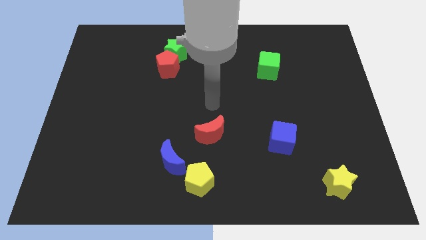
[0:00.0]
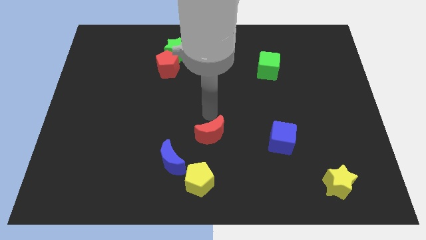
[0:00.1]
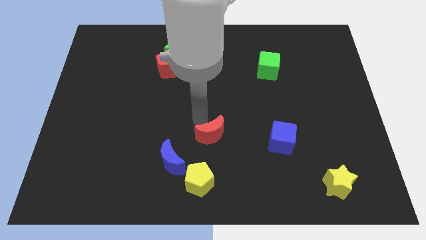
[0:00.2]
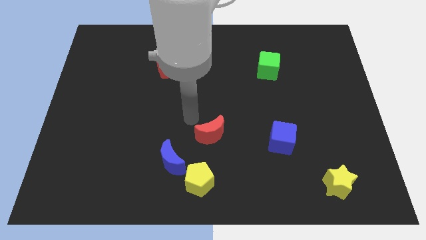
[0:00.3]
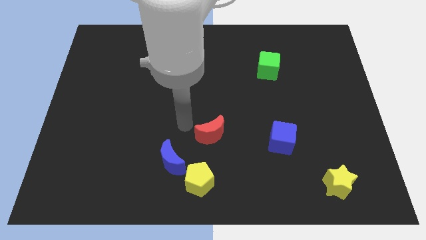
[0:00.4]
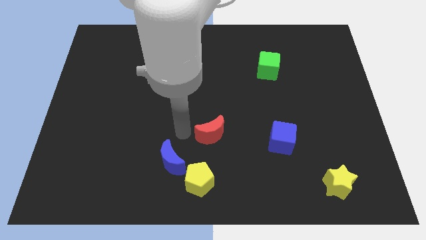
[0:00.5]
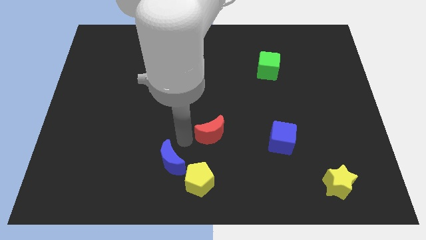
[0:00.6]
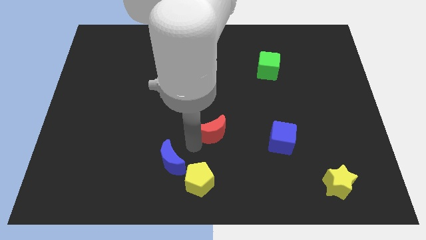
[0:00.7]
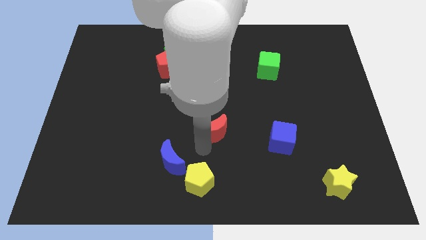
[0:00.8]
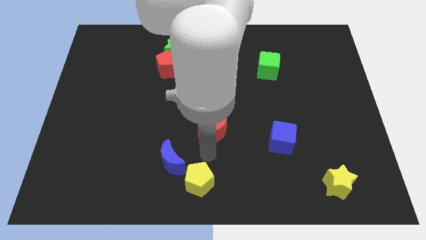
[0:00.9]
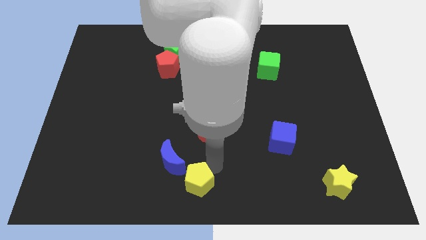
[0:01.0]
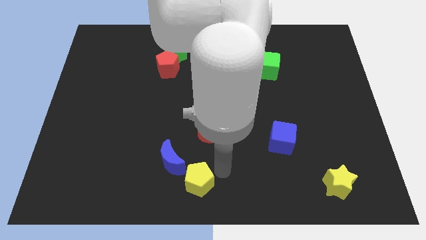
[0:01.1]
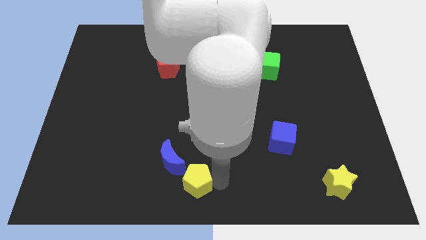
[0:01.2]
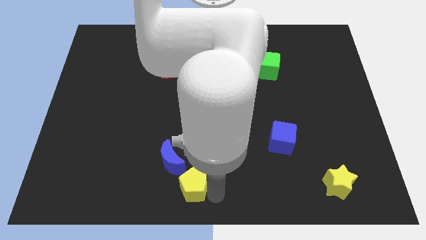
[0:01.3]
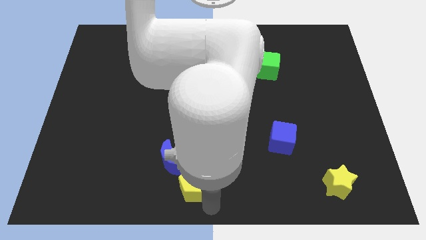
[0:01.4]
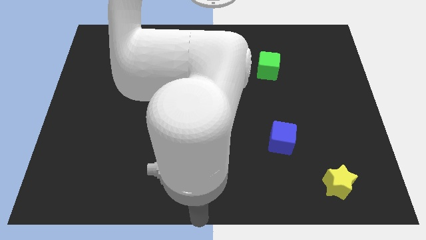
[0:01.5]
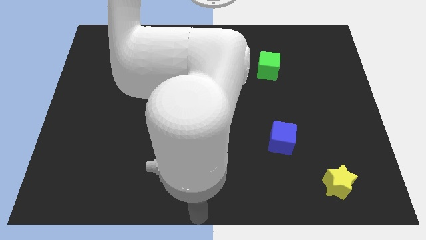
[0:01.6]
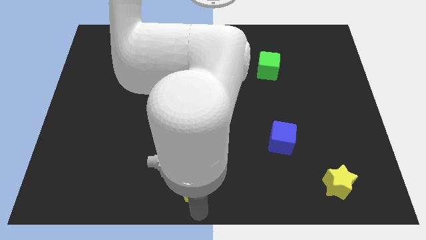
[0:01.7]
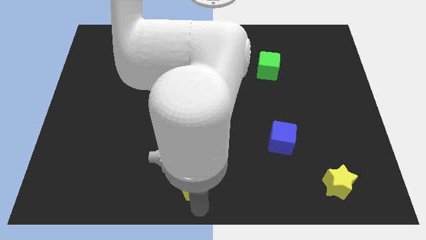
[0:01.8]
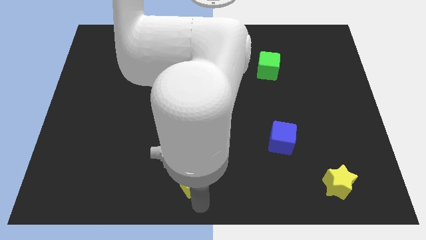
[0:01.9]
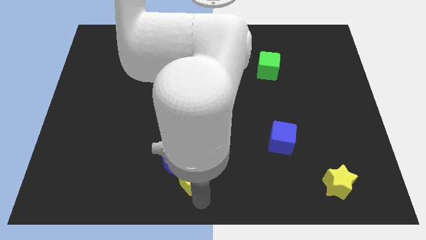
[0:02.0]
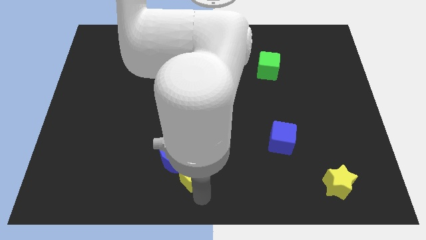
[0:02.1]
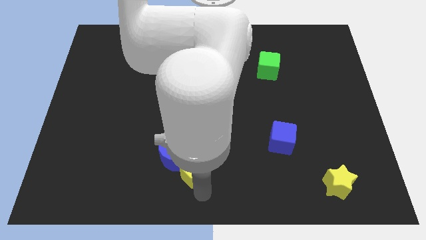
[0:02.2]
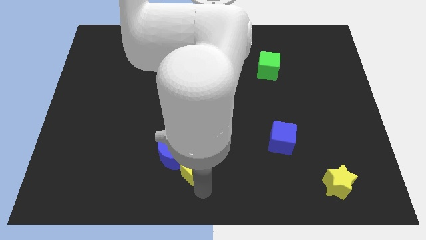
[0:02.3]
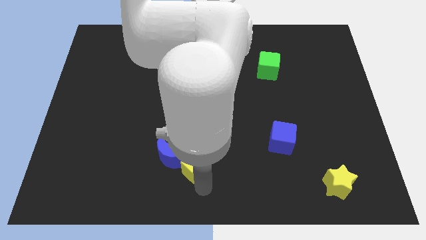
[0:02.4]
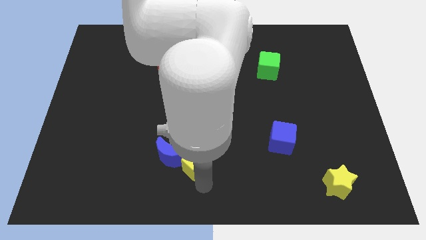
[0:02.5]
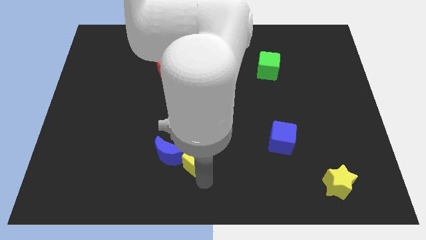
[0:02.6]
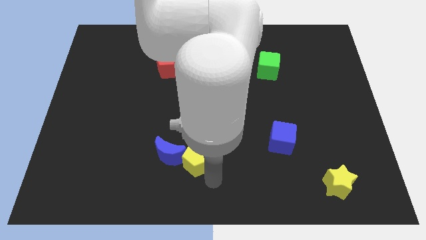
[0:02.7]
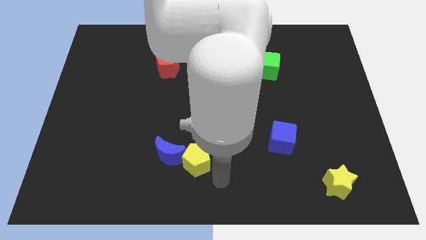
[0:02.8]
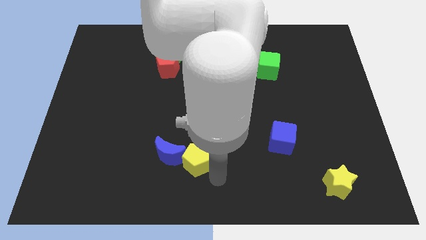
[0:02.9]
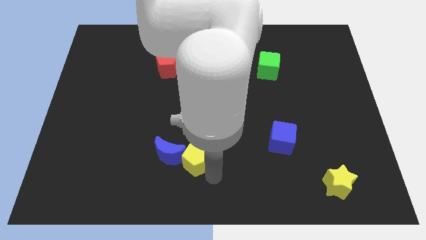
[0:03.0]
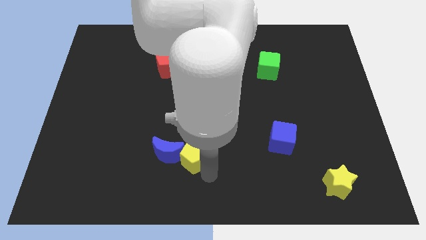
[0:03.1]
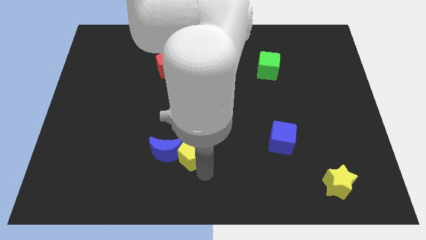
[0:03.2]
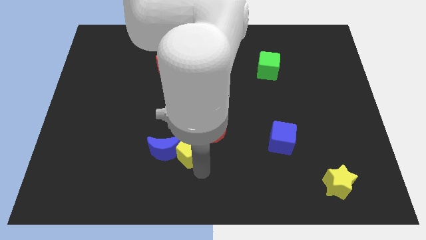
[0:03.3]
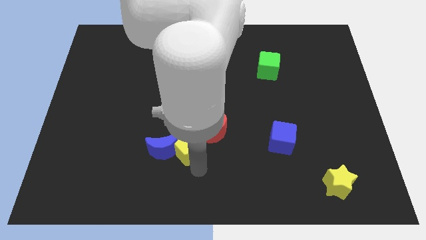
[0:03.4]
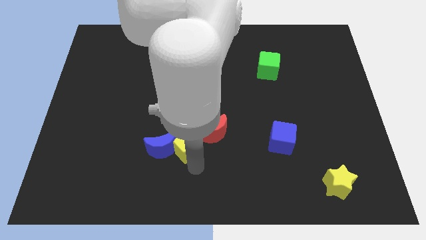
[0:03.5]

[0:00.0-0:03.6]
move the yellow pentagon a bit upwards and left

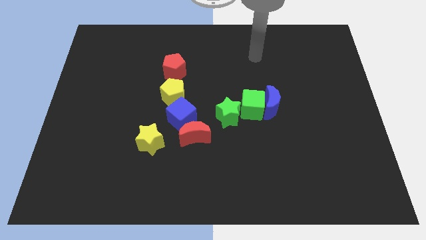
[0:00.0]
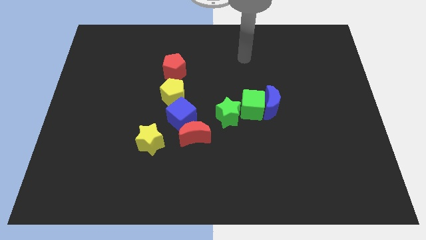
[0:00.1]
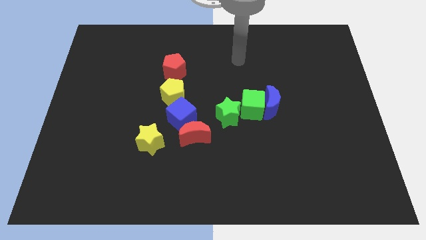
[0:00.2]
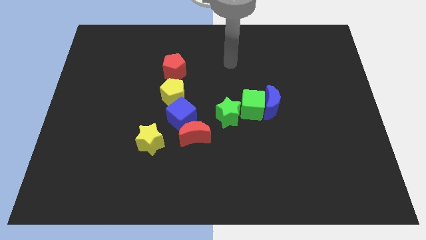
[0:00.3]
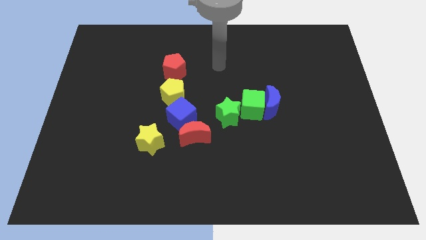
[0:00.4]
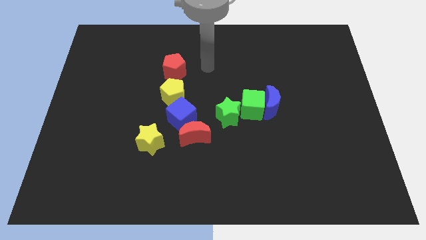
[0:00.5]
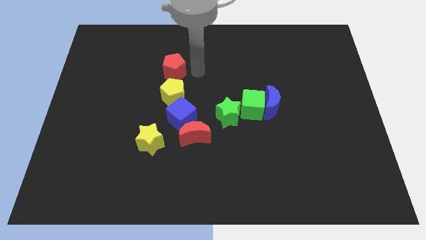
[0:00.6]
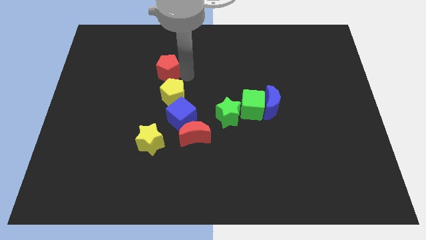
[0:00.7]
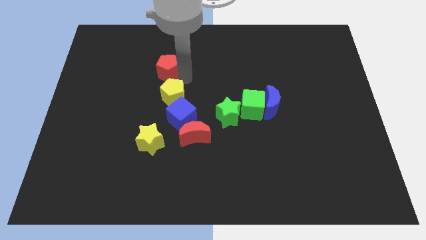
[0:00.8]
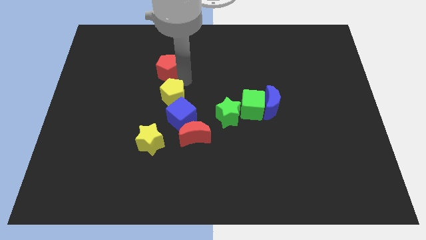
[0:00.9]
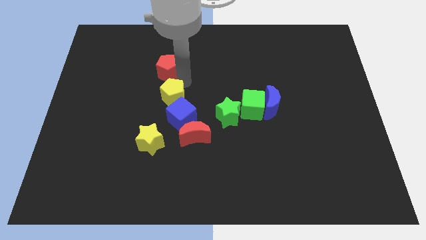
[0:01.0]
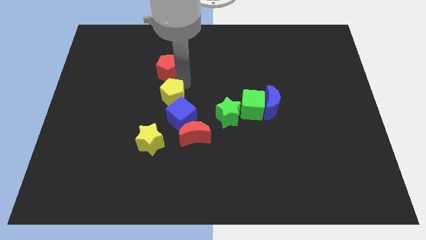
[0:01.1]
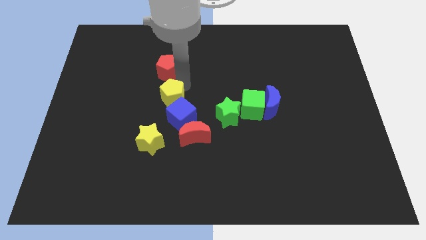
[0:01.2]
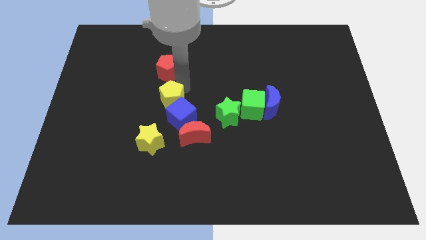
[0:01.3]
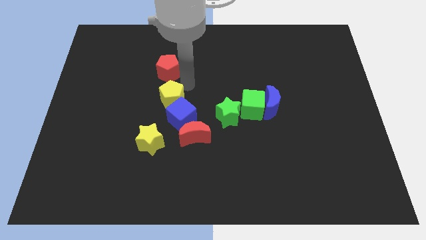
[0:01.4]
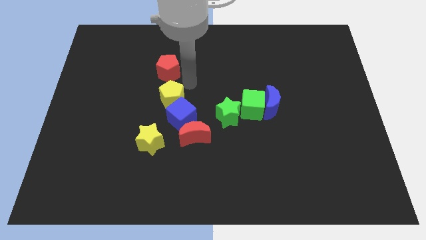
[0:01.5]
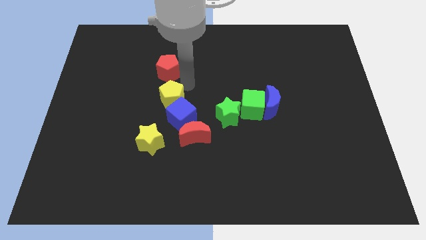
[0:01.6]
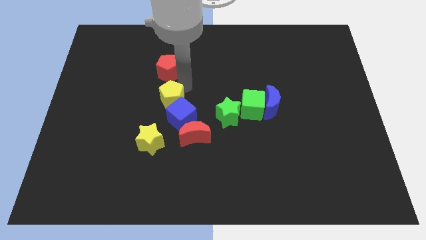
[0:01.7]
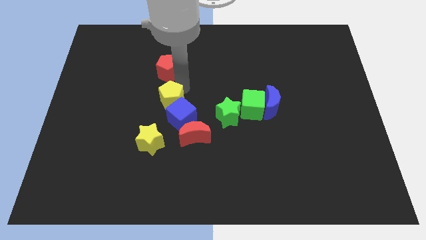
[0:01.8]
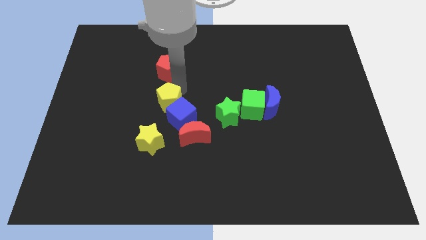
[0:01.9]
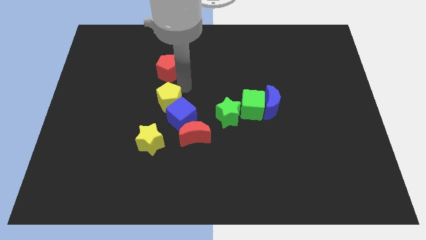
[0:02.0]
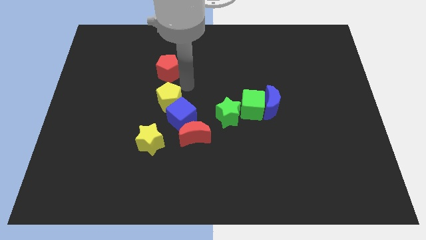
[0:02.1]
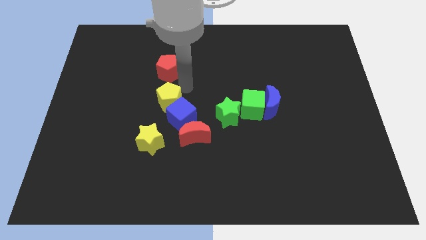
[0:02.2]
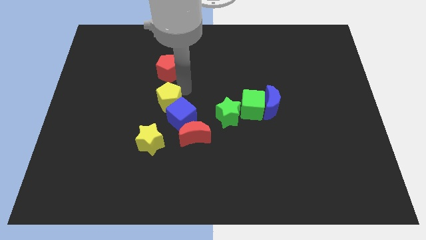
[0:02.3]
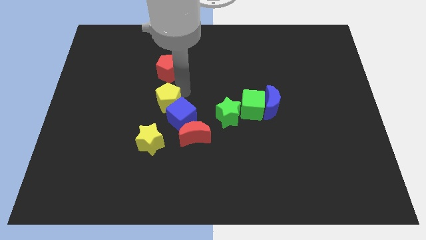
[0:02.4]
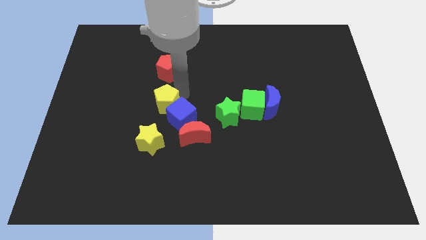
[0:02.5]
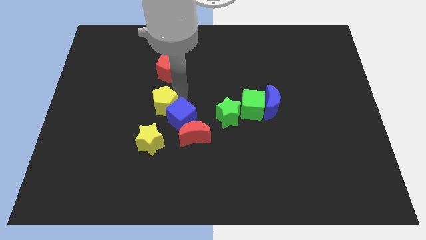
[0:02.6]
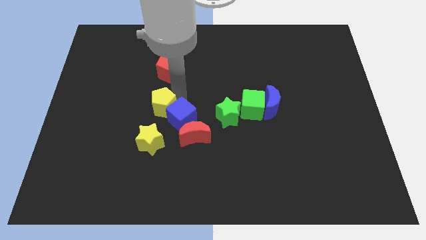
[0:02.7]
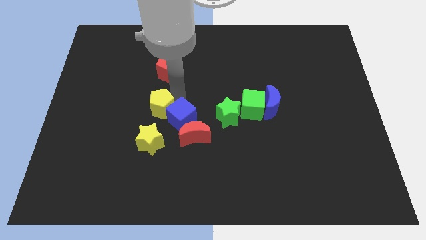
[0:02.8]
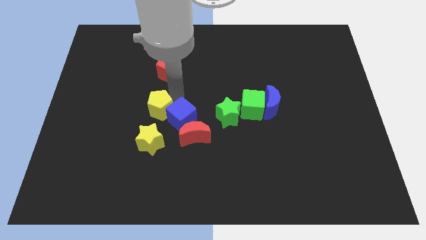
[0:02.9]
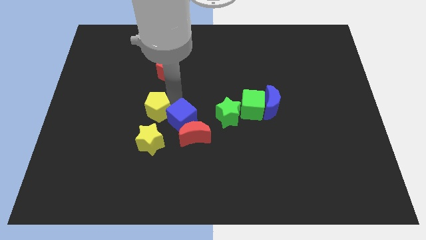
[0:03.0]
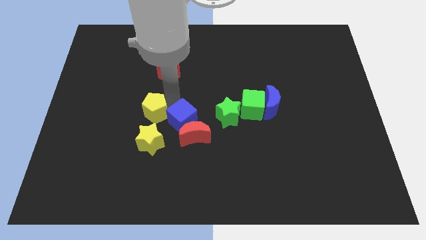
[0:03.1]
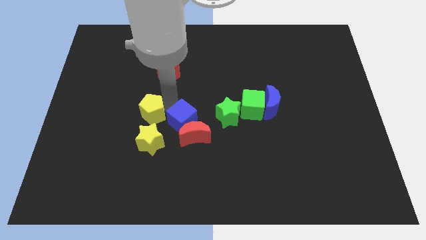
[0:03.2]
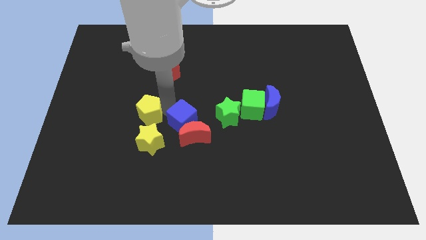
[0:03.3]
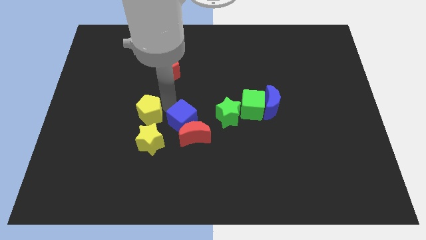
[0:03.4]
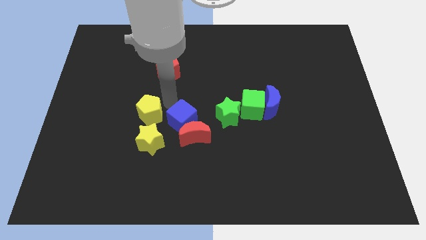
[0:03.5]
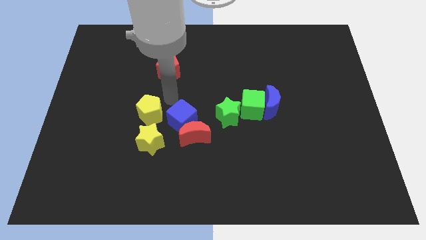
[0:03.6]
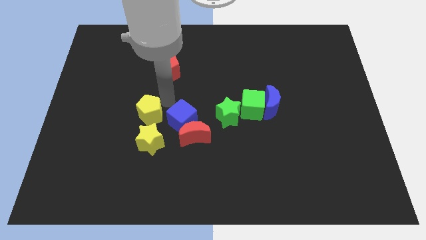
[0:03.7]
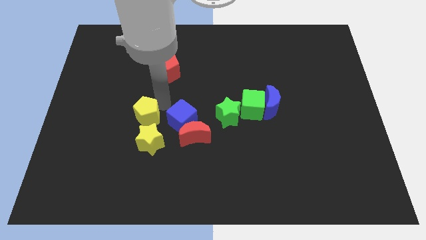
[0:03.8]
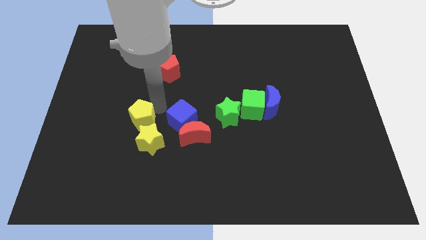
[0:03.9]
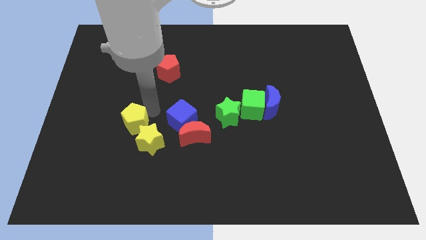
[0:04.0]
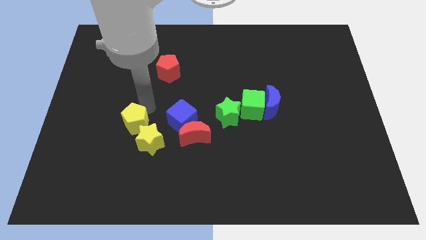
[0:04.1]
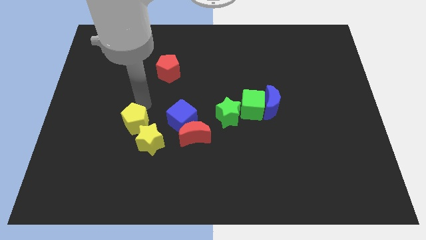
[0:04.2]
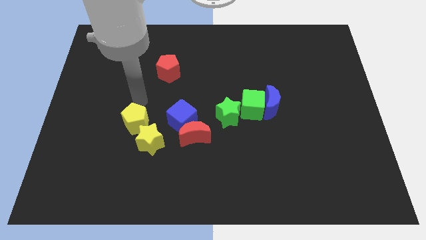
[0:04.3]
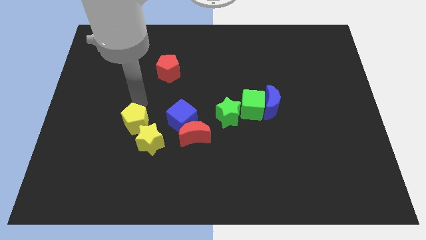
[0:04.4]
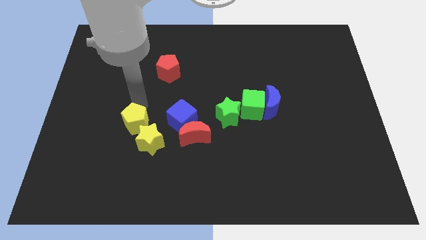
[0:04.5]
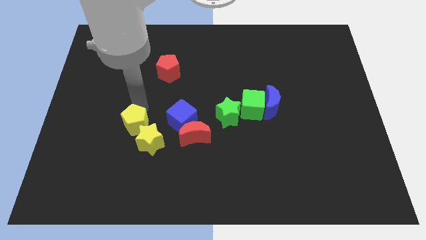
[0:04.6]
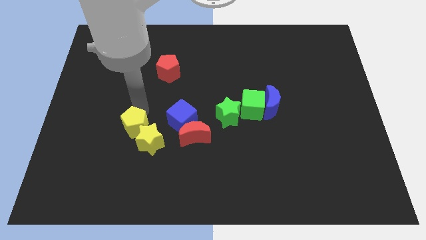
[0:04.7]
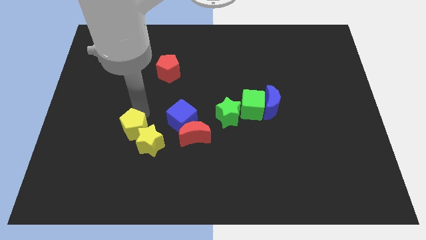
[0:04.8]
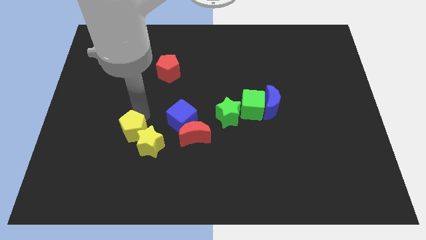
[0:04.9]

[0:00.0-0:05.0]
push the yellow pentagon slightly downwards
